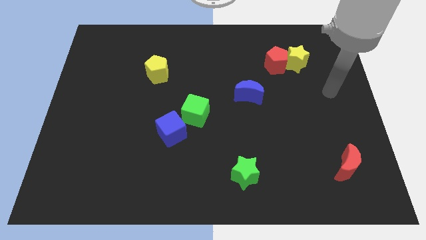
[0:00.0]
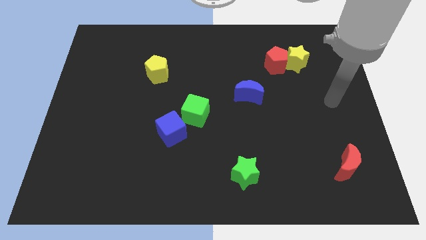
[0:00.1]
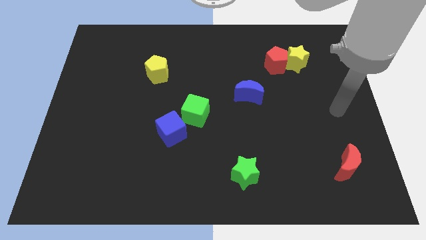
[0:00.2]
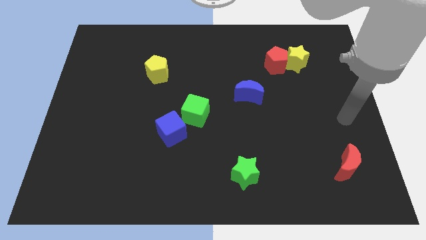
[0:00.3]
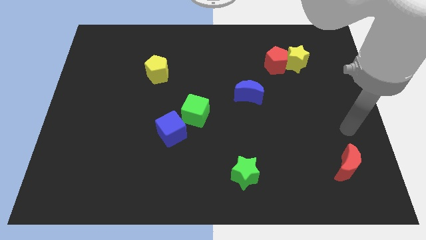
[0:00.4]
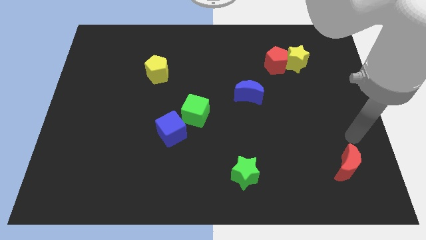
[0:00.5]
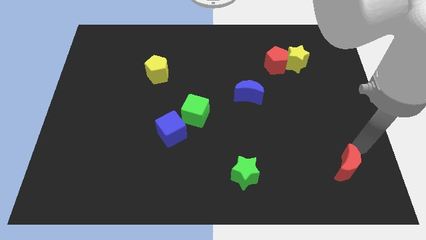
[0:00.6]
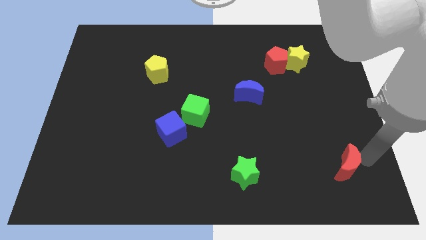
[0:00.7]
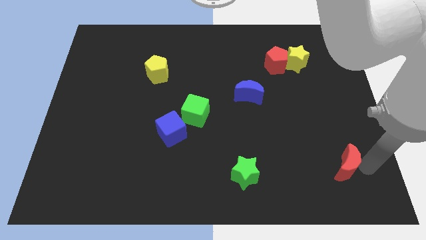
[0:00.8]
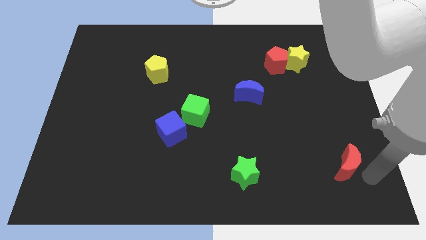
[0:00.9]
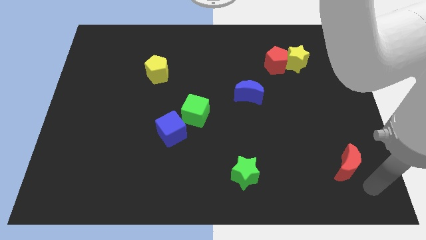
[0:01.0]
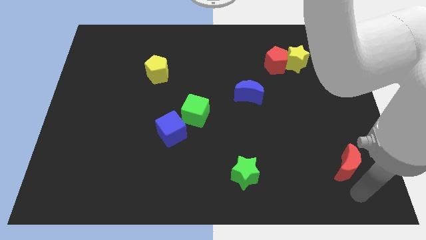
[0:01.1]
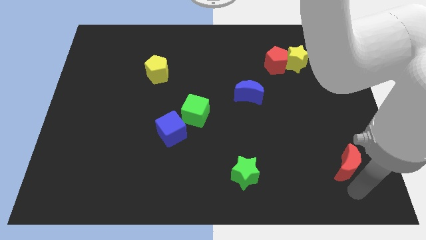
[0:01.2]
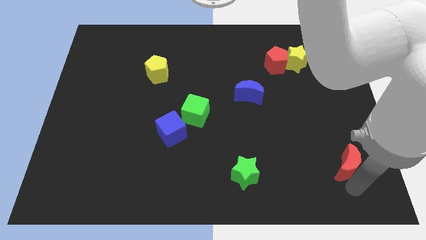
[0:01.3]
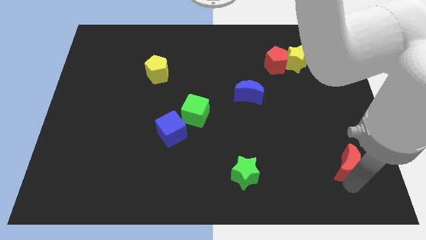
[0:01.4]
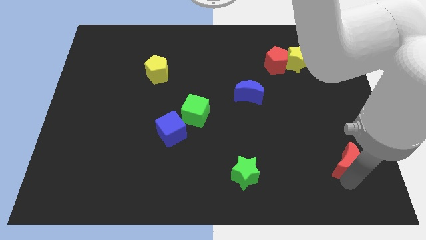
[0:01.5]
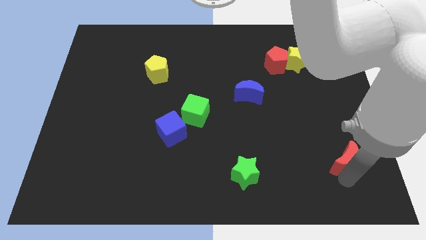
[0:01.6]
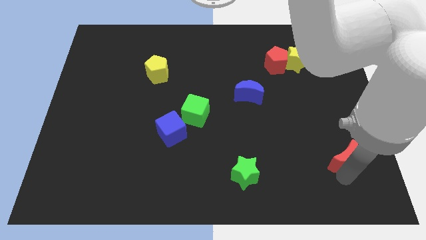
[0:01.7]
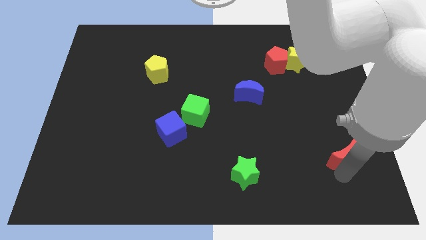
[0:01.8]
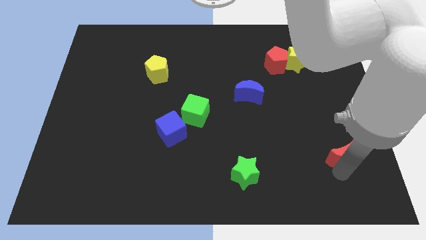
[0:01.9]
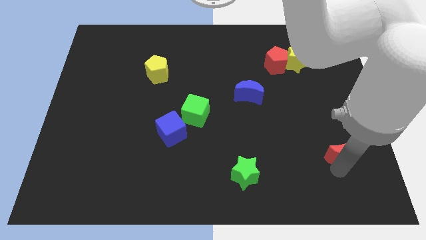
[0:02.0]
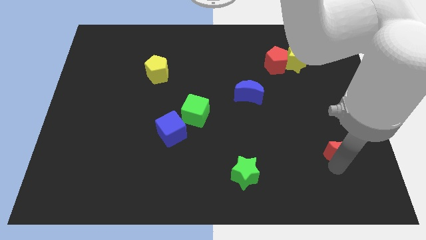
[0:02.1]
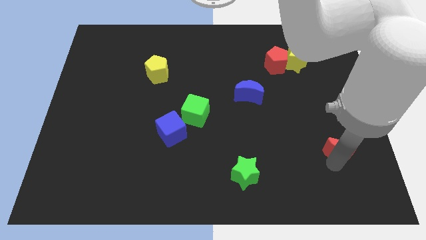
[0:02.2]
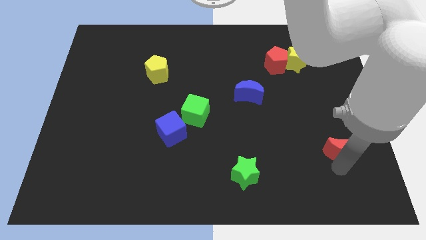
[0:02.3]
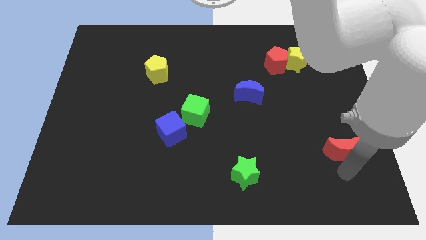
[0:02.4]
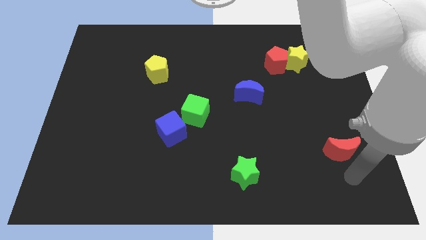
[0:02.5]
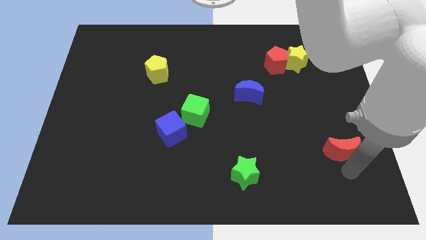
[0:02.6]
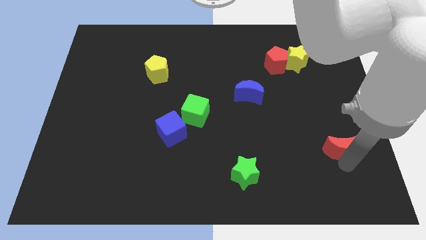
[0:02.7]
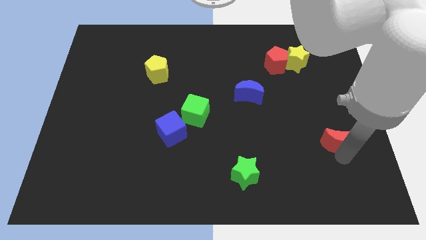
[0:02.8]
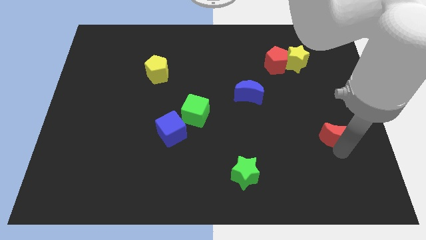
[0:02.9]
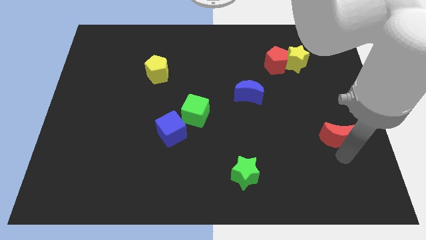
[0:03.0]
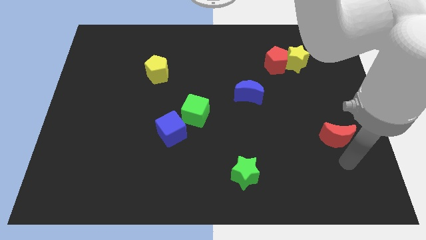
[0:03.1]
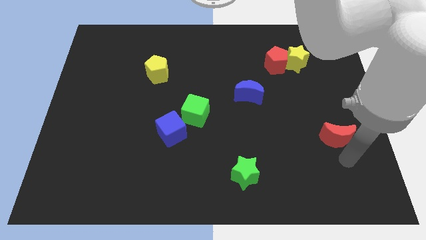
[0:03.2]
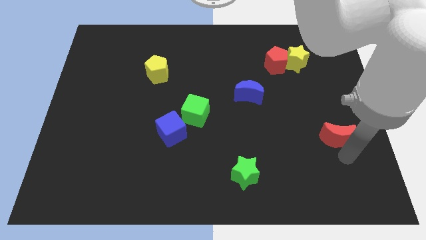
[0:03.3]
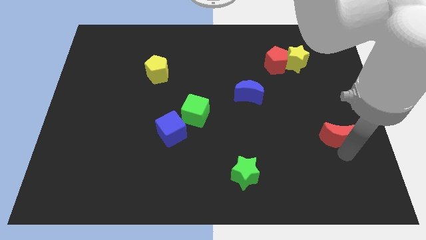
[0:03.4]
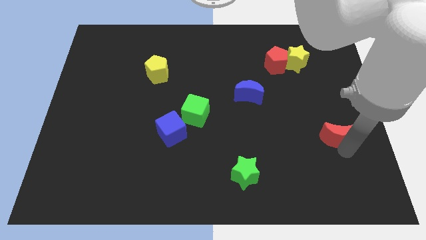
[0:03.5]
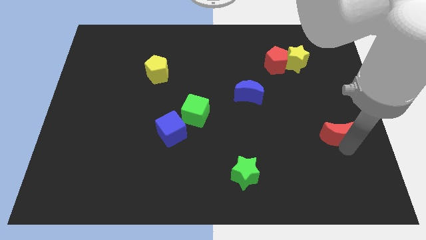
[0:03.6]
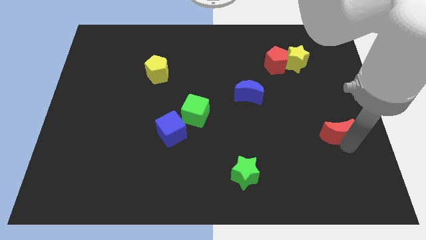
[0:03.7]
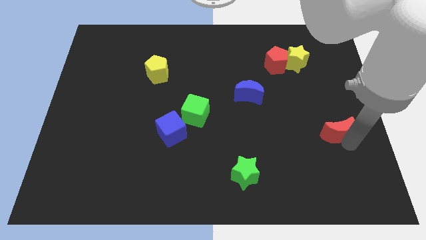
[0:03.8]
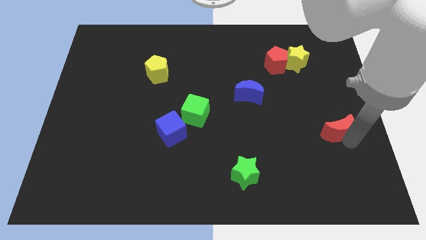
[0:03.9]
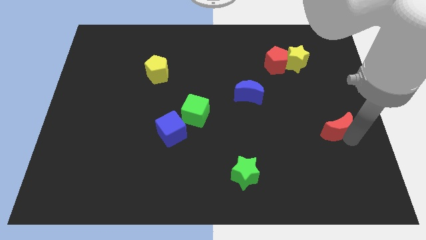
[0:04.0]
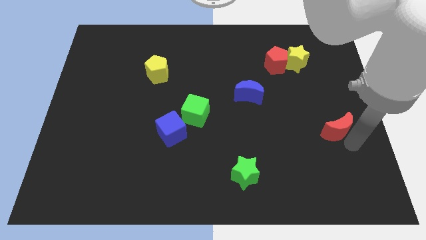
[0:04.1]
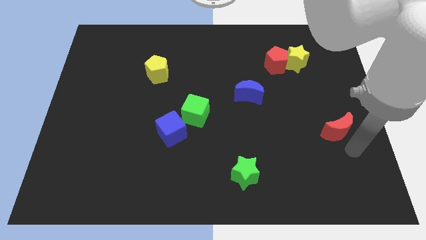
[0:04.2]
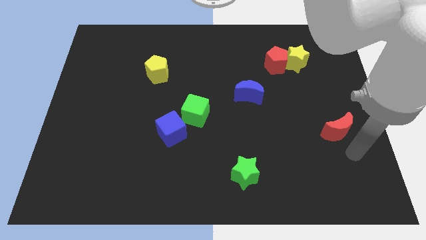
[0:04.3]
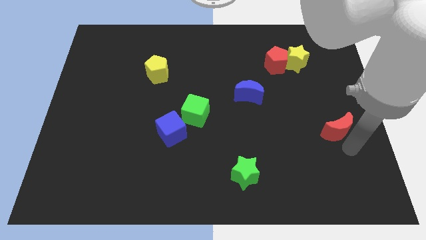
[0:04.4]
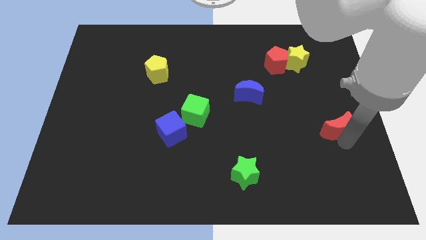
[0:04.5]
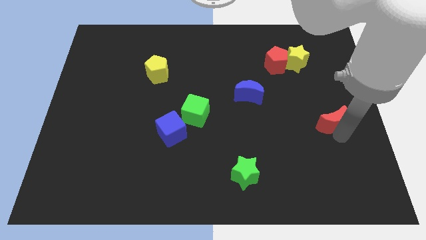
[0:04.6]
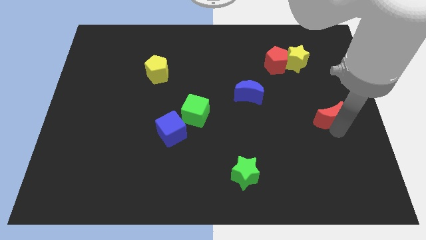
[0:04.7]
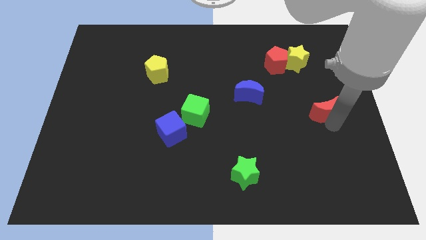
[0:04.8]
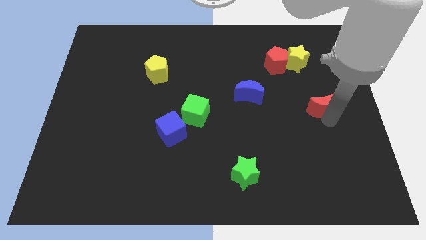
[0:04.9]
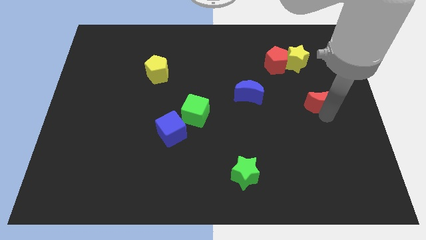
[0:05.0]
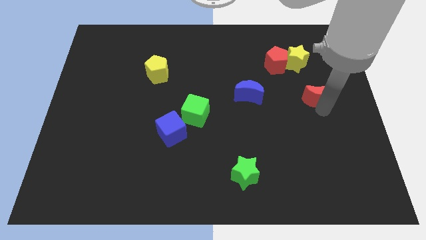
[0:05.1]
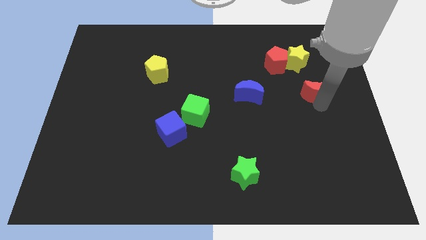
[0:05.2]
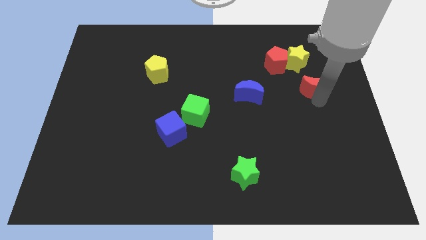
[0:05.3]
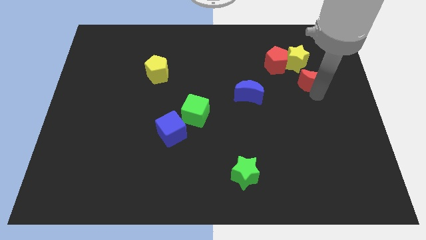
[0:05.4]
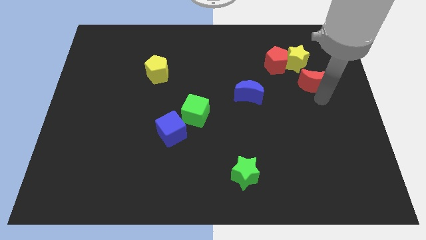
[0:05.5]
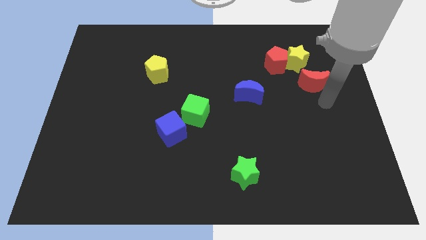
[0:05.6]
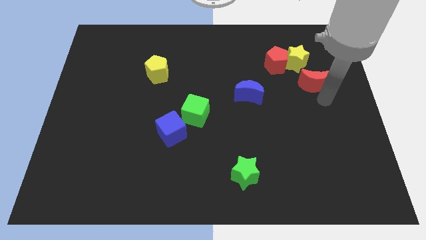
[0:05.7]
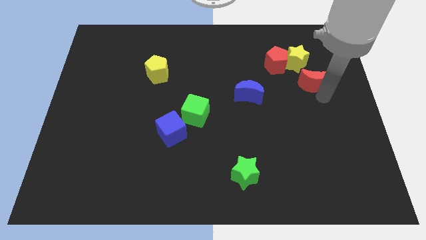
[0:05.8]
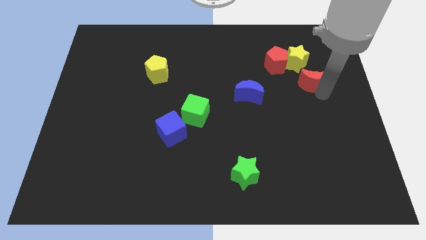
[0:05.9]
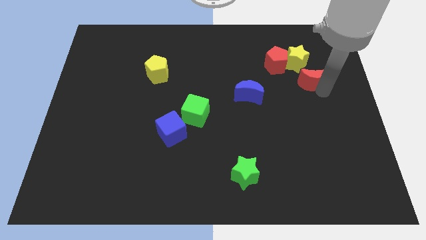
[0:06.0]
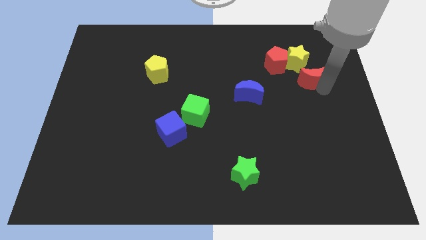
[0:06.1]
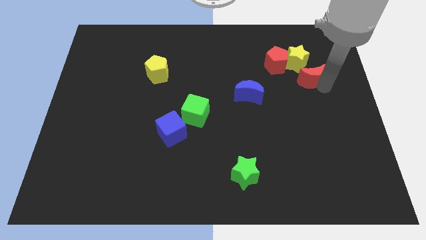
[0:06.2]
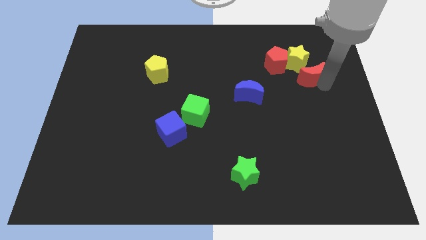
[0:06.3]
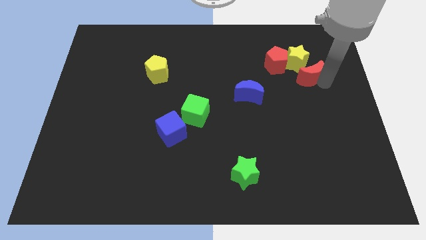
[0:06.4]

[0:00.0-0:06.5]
put the red moon close to the yellow star
